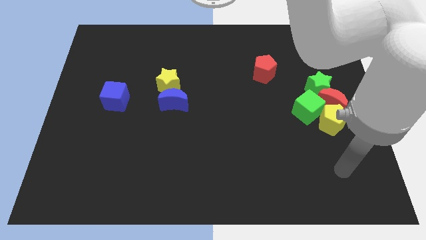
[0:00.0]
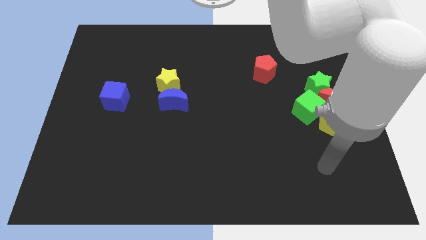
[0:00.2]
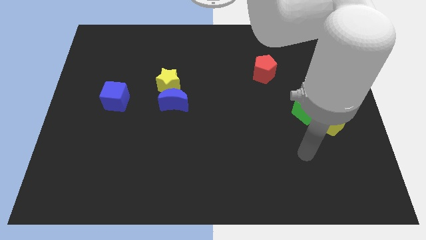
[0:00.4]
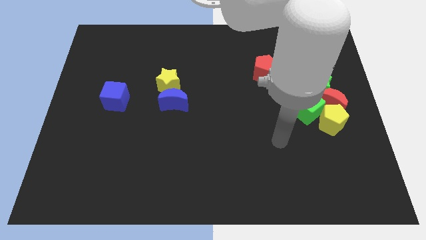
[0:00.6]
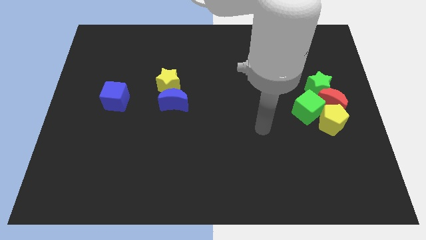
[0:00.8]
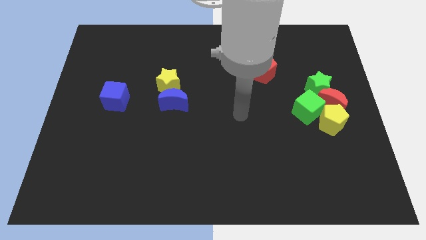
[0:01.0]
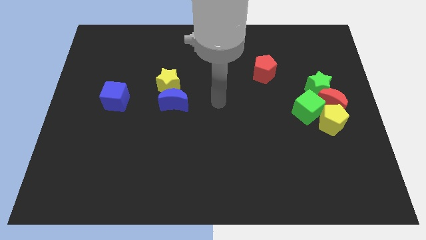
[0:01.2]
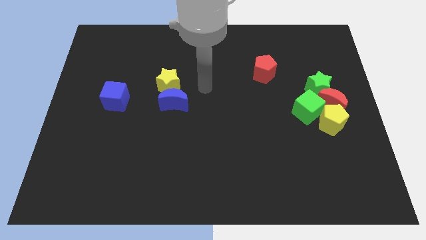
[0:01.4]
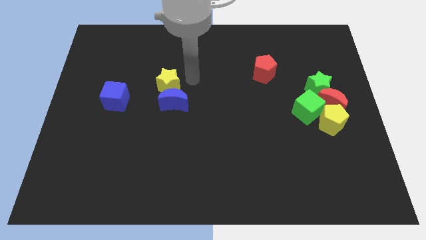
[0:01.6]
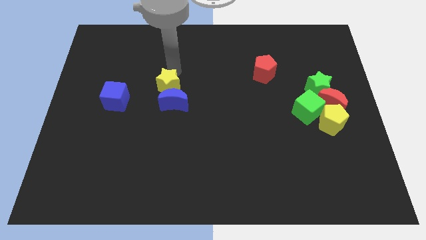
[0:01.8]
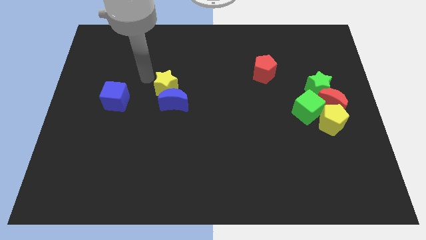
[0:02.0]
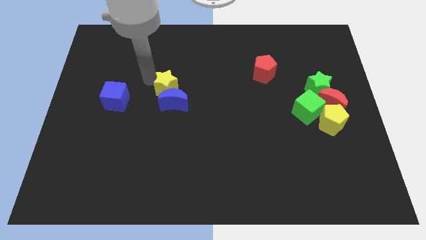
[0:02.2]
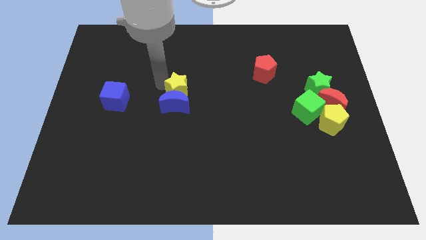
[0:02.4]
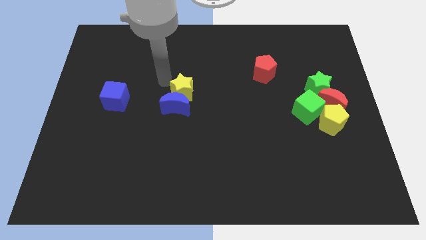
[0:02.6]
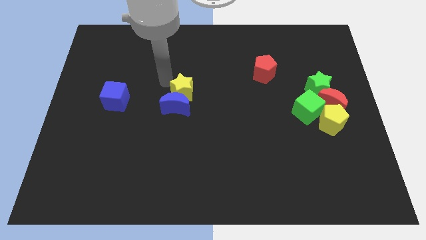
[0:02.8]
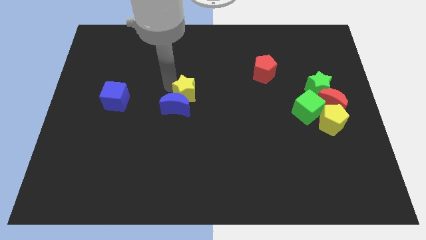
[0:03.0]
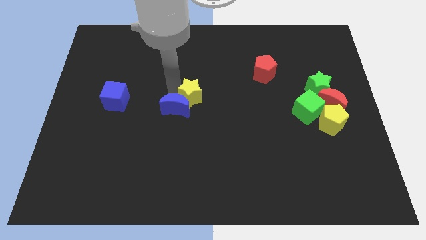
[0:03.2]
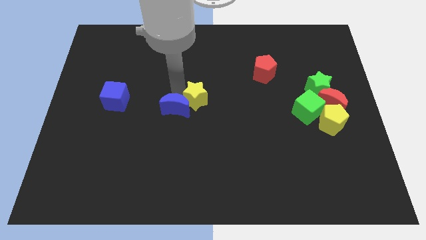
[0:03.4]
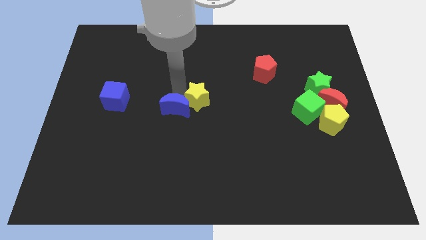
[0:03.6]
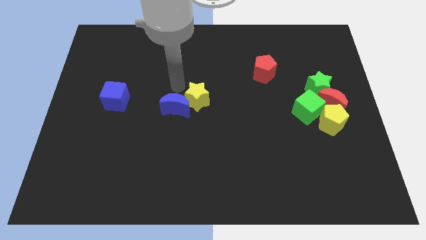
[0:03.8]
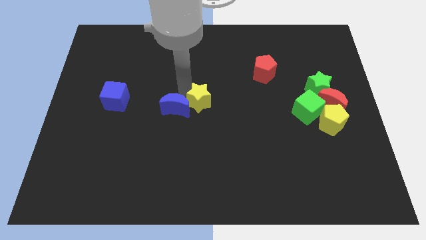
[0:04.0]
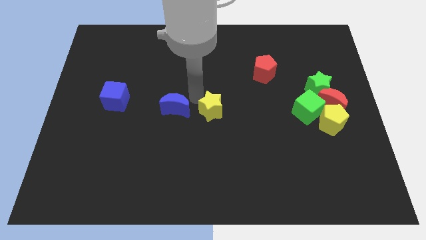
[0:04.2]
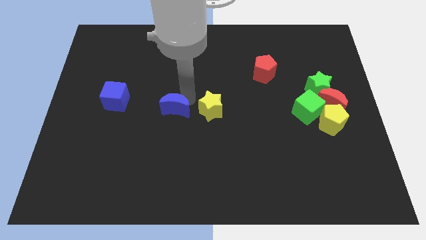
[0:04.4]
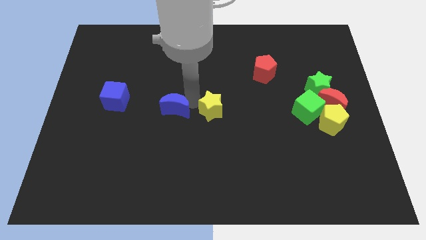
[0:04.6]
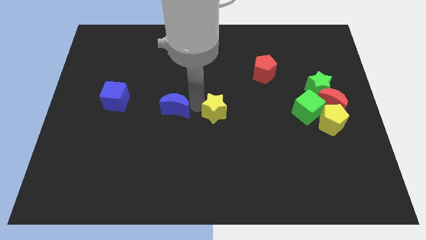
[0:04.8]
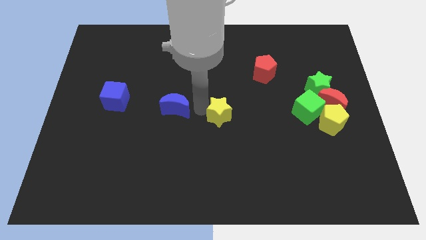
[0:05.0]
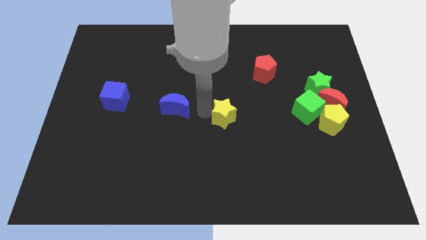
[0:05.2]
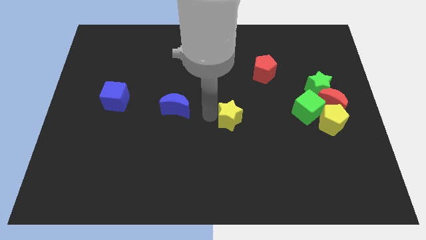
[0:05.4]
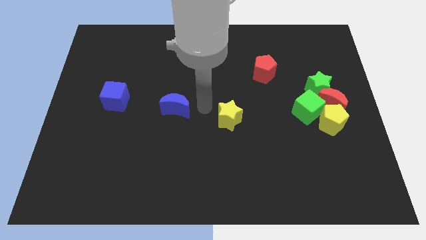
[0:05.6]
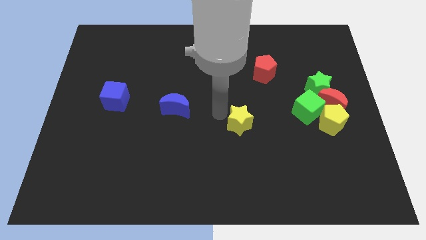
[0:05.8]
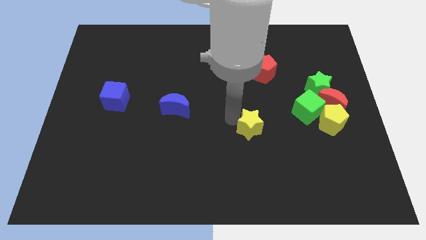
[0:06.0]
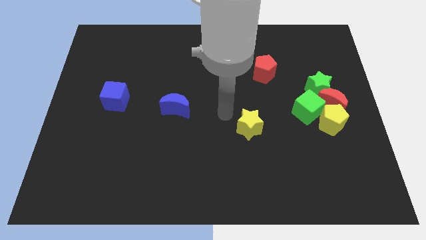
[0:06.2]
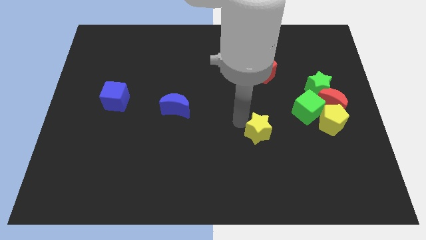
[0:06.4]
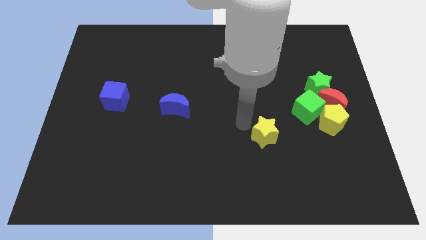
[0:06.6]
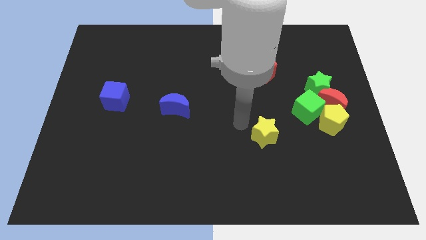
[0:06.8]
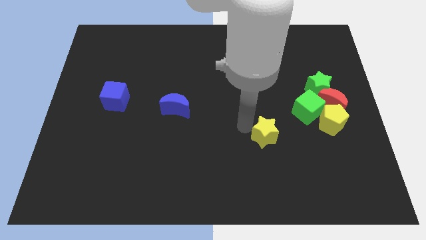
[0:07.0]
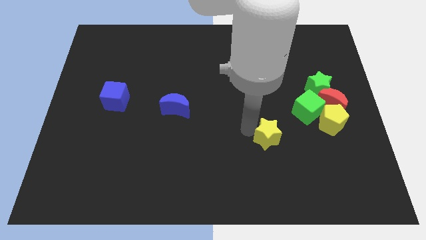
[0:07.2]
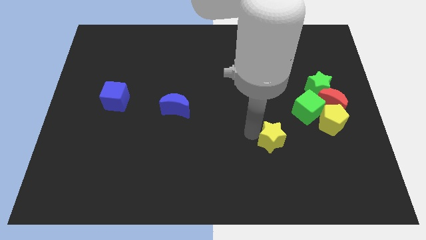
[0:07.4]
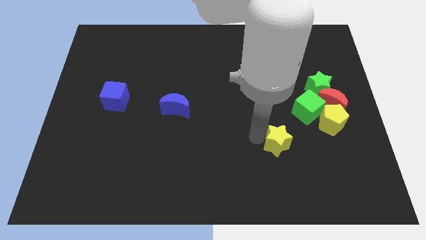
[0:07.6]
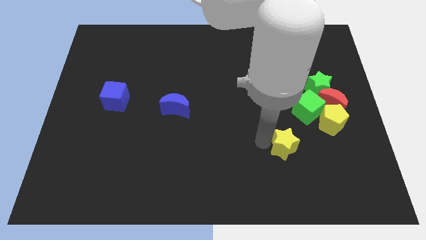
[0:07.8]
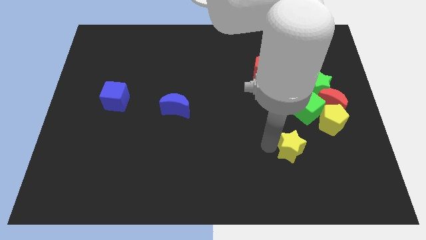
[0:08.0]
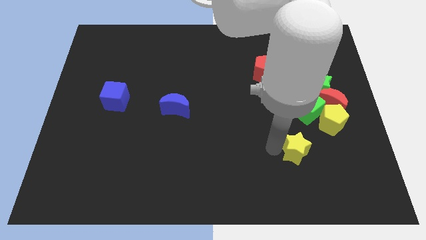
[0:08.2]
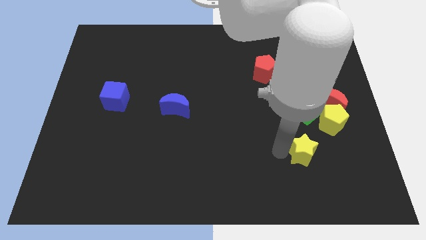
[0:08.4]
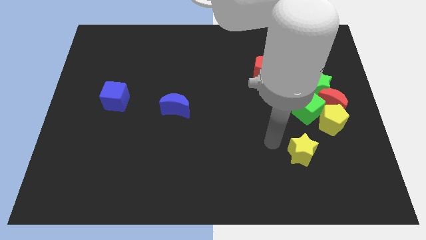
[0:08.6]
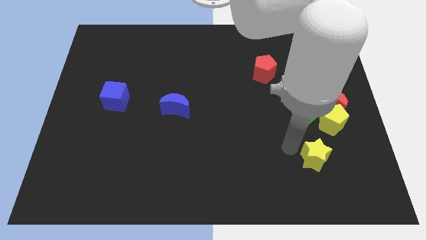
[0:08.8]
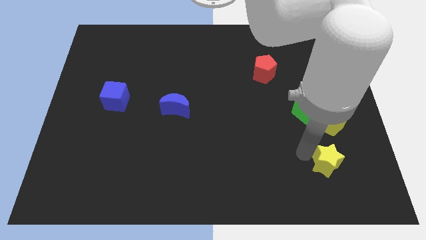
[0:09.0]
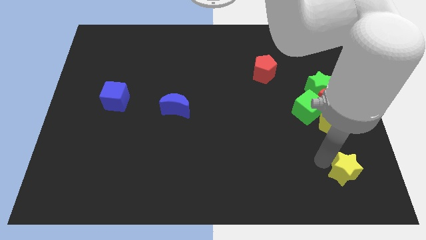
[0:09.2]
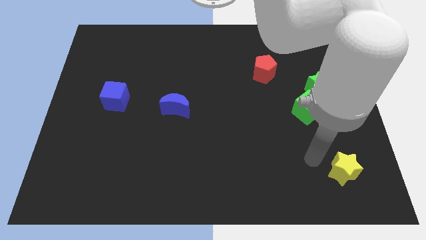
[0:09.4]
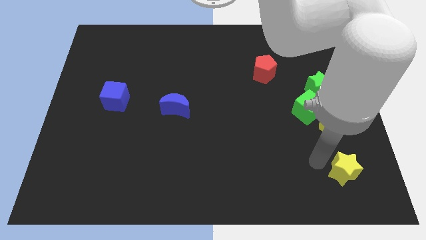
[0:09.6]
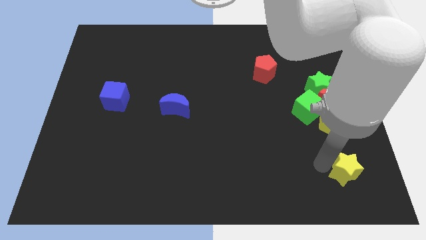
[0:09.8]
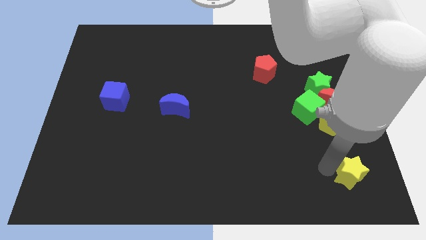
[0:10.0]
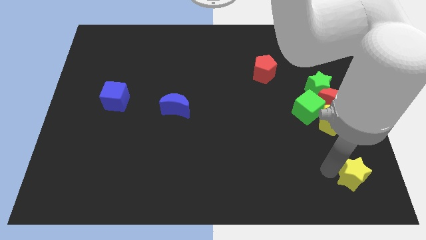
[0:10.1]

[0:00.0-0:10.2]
put the yellow star to the bottom right corner

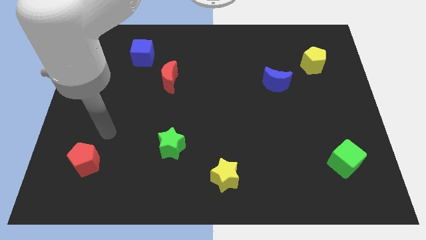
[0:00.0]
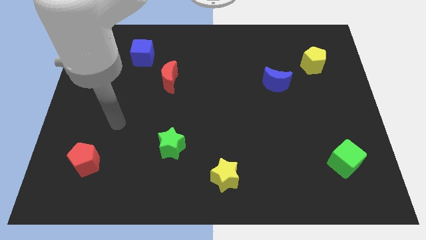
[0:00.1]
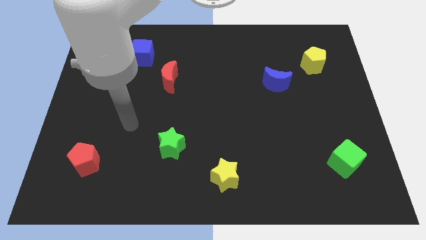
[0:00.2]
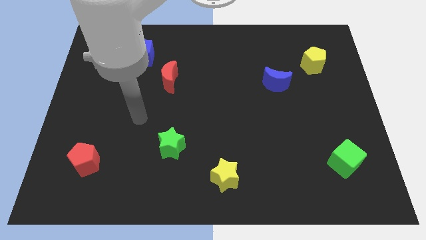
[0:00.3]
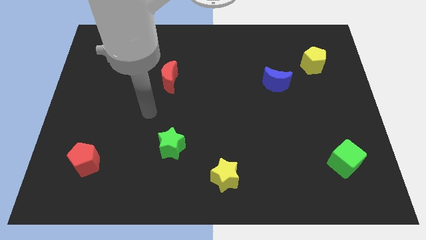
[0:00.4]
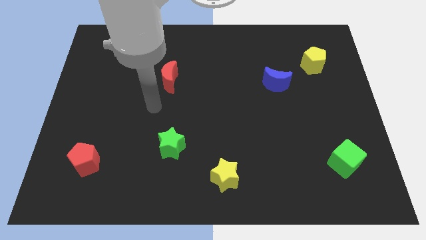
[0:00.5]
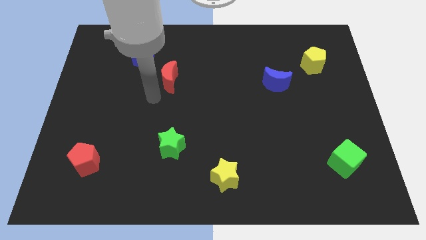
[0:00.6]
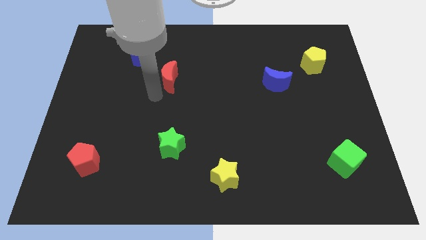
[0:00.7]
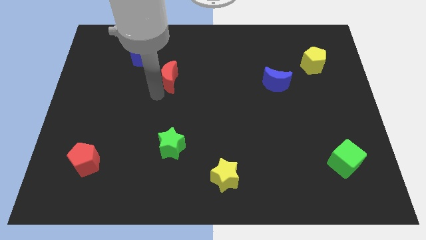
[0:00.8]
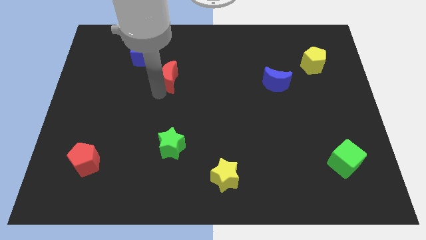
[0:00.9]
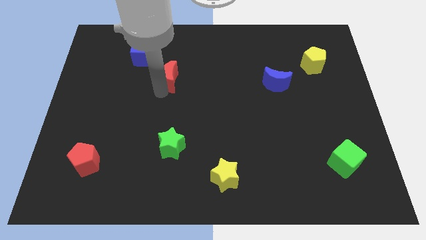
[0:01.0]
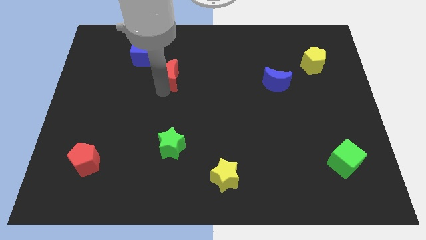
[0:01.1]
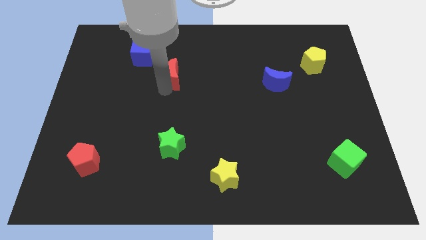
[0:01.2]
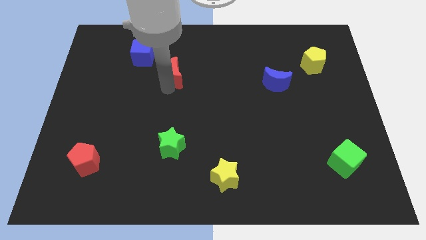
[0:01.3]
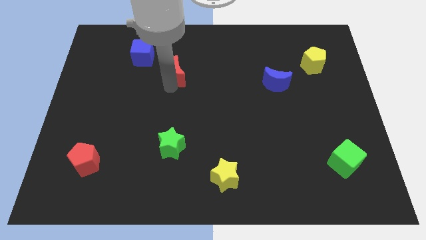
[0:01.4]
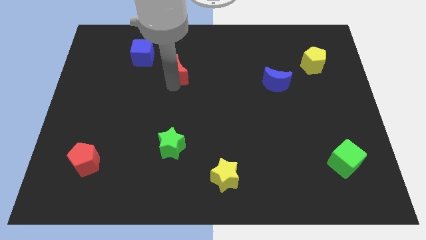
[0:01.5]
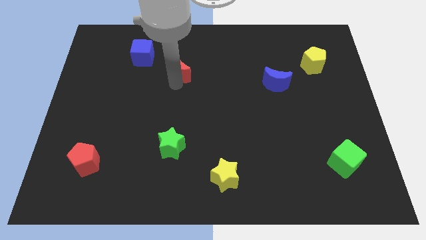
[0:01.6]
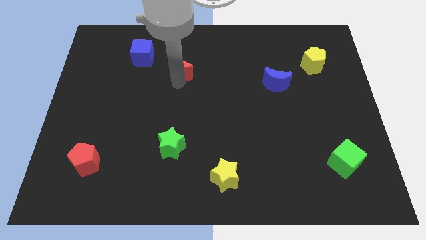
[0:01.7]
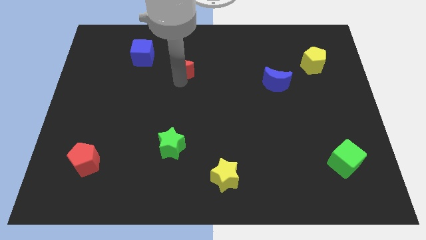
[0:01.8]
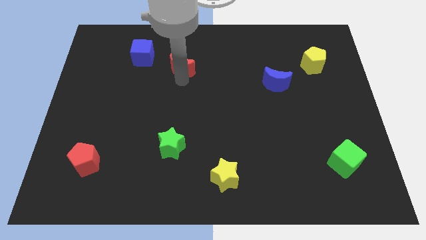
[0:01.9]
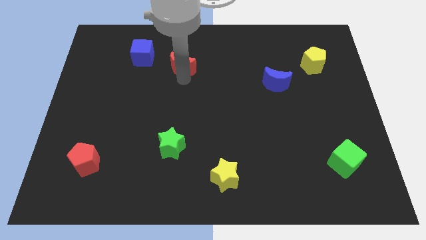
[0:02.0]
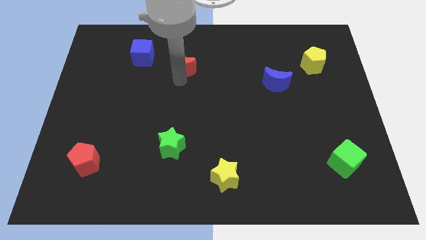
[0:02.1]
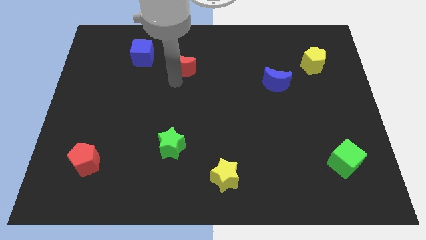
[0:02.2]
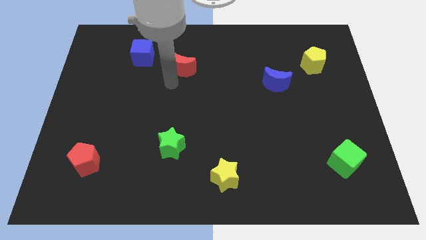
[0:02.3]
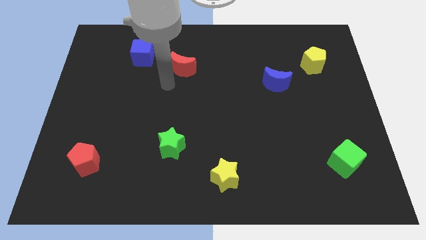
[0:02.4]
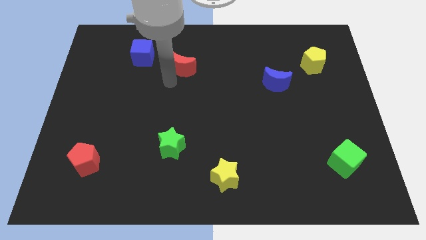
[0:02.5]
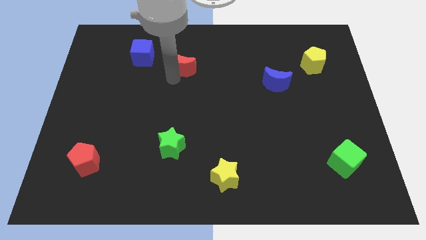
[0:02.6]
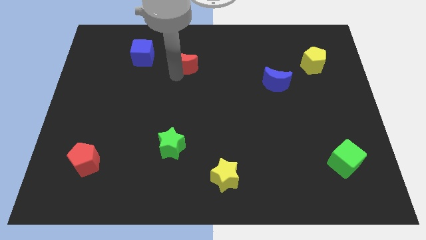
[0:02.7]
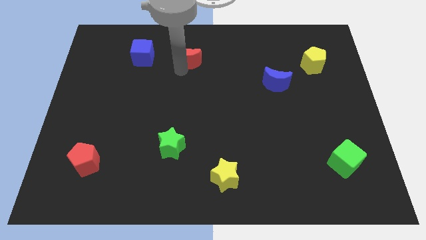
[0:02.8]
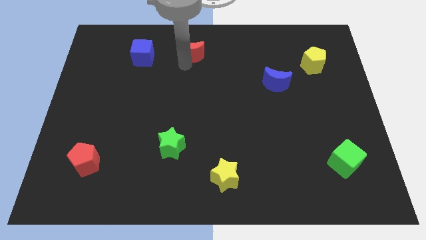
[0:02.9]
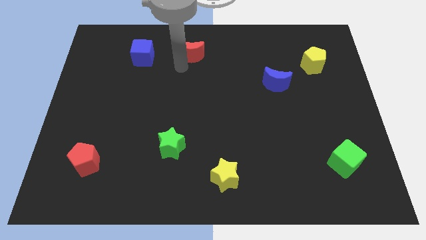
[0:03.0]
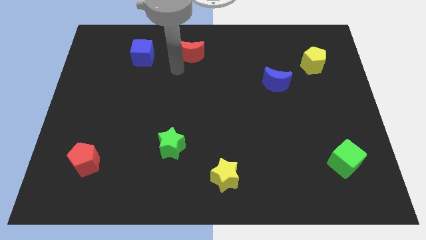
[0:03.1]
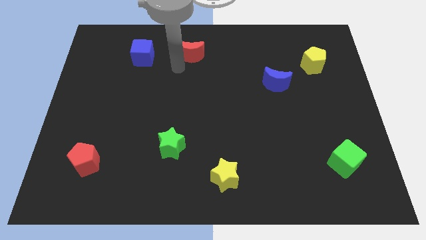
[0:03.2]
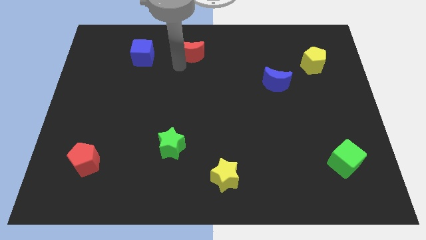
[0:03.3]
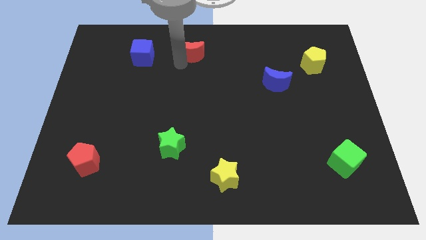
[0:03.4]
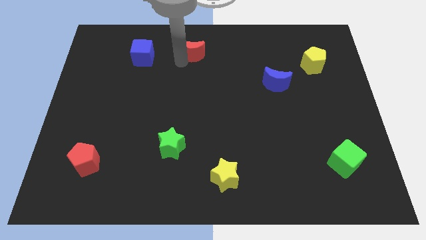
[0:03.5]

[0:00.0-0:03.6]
push the red moon to the top
